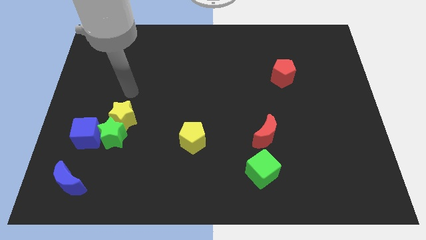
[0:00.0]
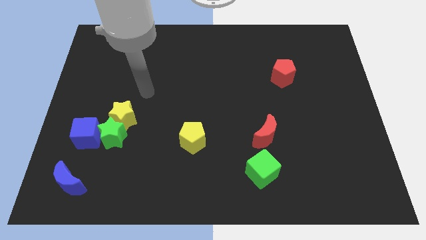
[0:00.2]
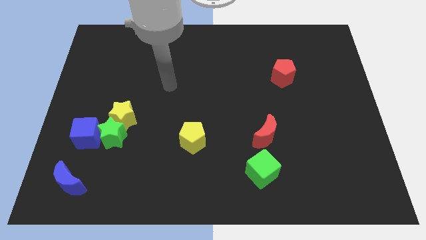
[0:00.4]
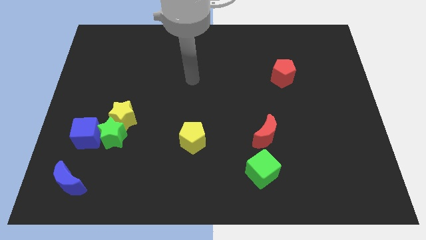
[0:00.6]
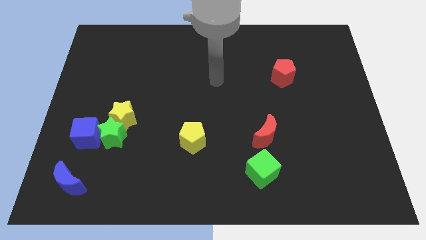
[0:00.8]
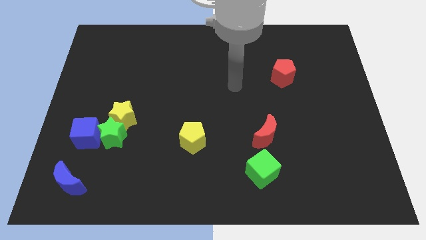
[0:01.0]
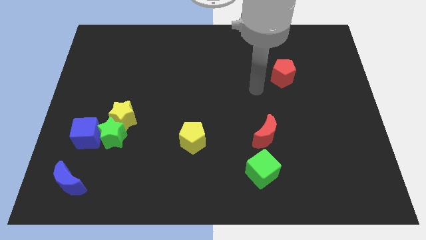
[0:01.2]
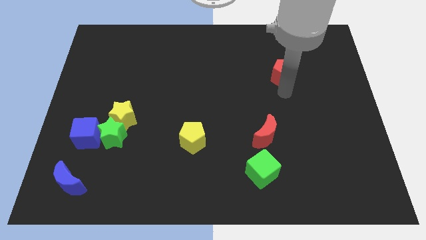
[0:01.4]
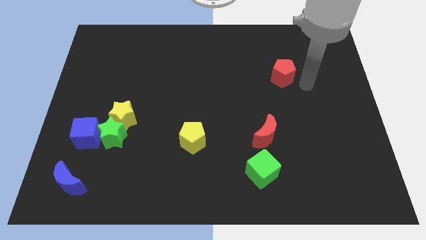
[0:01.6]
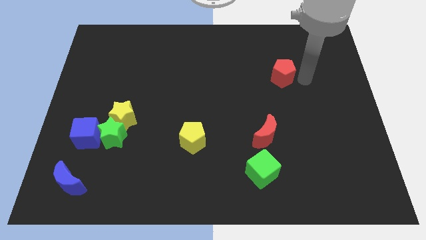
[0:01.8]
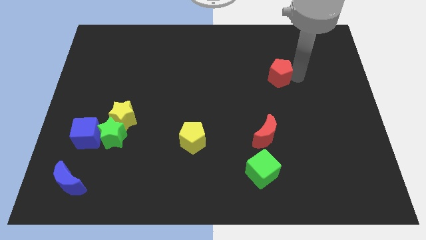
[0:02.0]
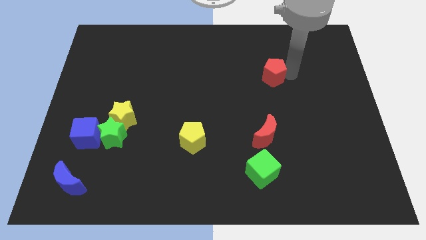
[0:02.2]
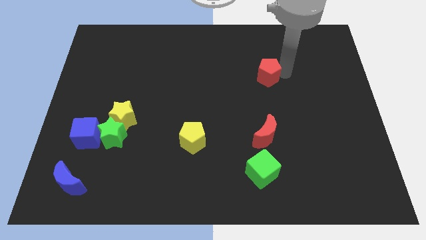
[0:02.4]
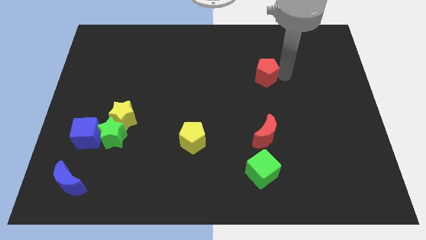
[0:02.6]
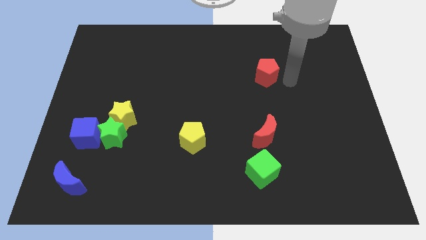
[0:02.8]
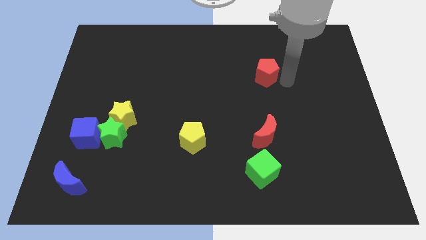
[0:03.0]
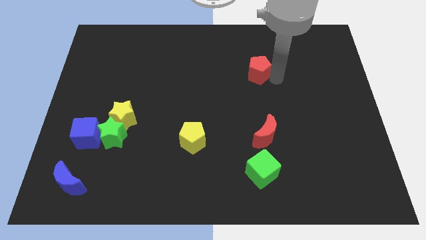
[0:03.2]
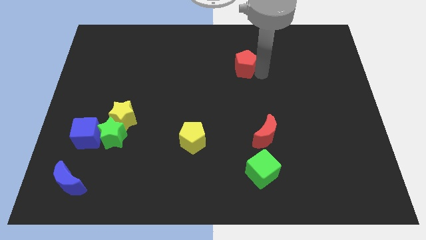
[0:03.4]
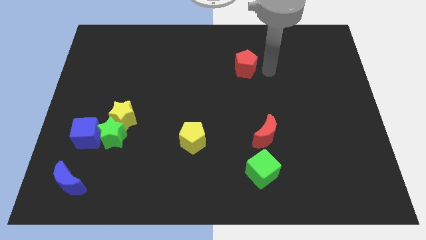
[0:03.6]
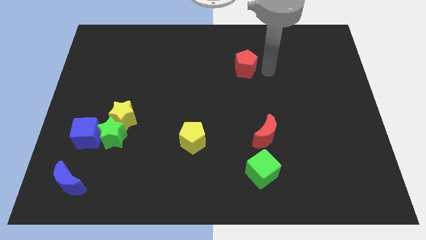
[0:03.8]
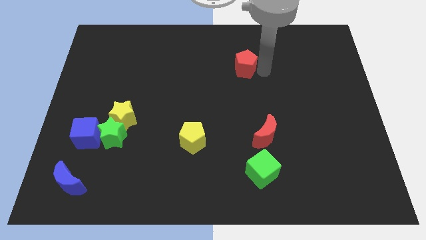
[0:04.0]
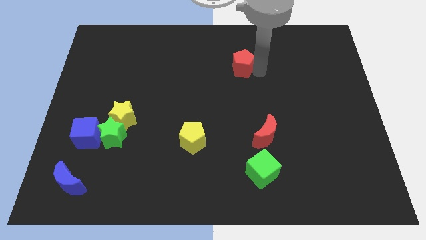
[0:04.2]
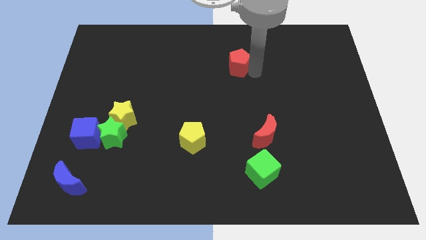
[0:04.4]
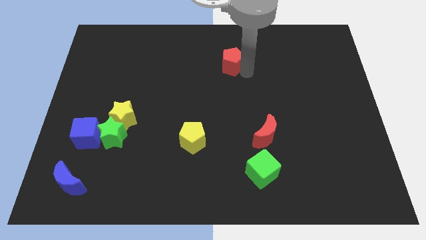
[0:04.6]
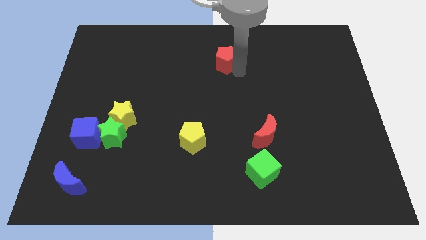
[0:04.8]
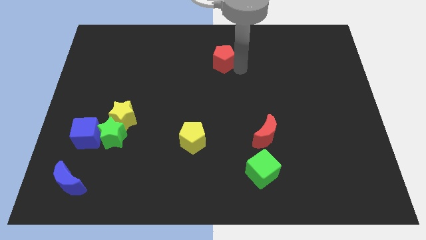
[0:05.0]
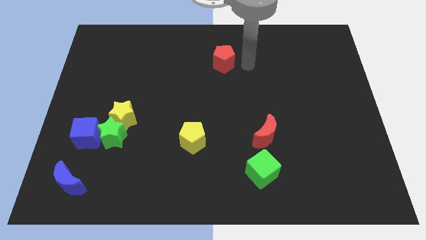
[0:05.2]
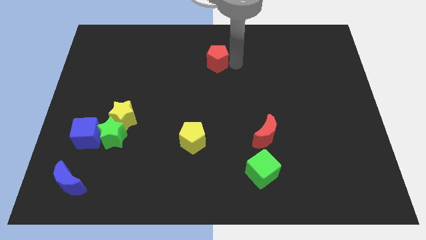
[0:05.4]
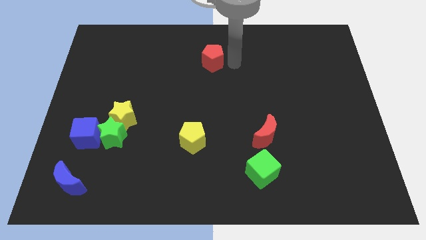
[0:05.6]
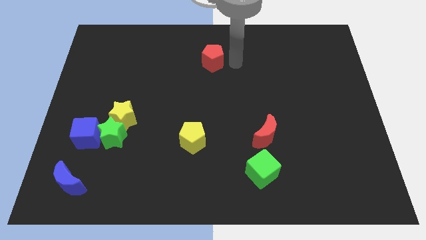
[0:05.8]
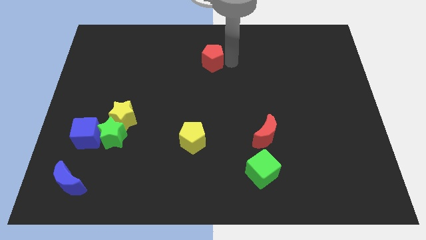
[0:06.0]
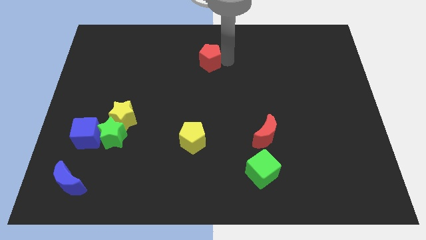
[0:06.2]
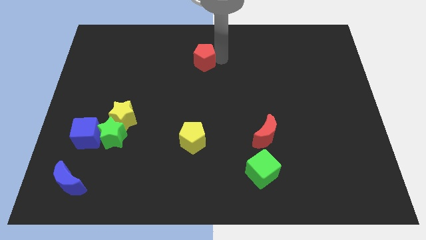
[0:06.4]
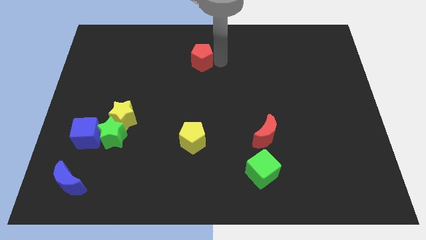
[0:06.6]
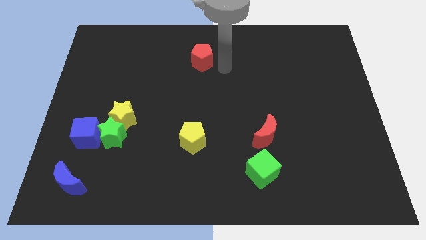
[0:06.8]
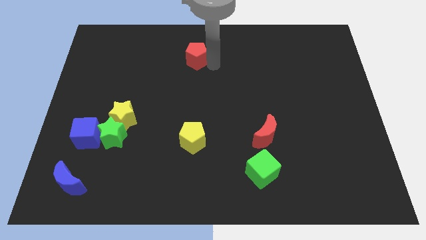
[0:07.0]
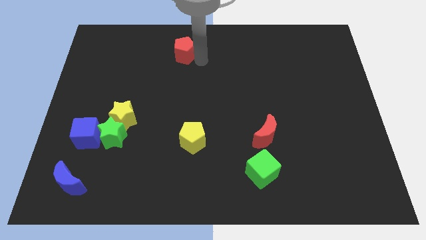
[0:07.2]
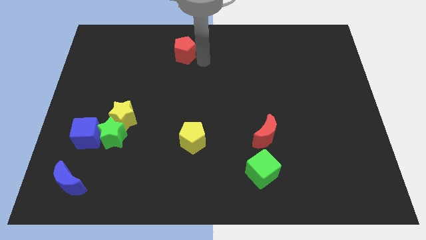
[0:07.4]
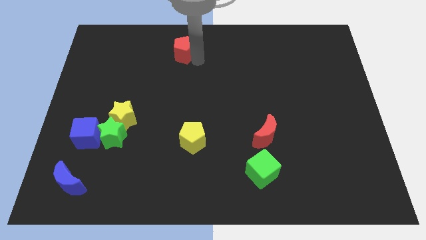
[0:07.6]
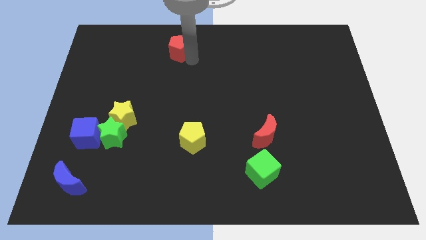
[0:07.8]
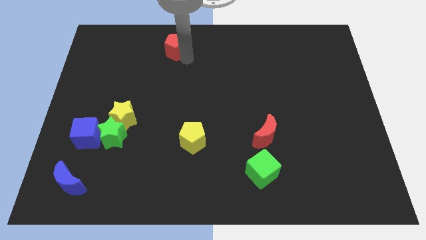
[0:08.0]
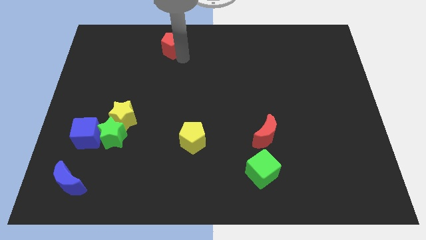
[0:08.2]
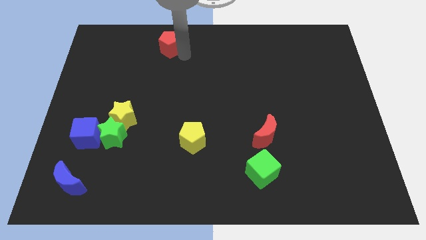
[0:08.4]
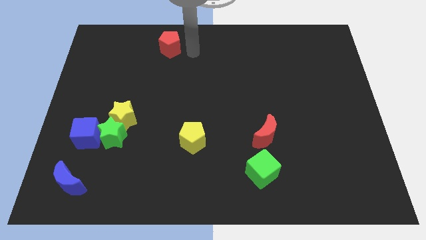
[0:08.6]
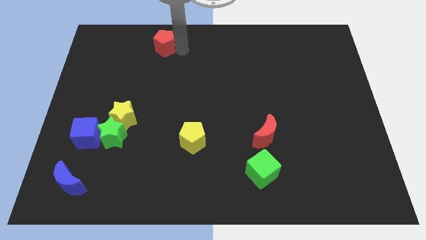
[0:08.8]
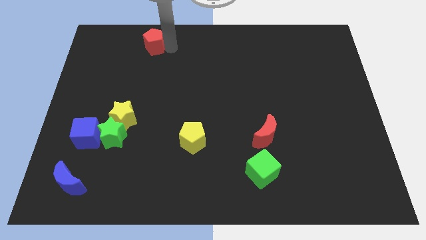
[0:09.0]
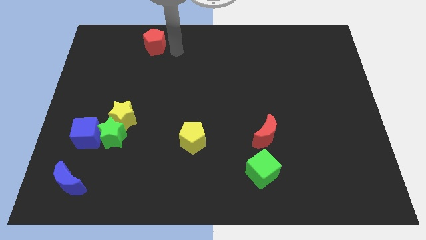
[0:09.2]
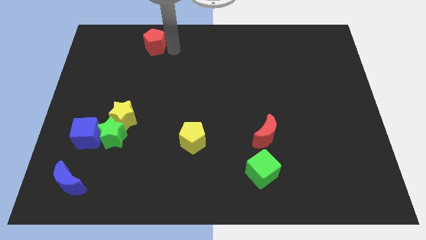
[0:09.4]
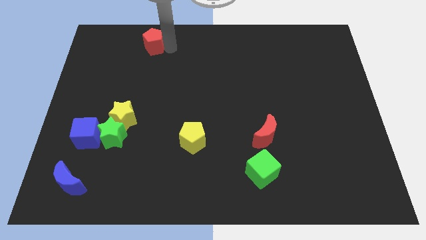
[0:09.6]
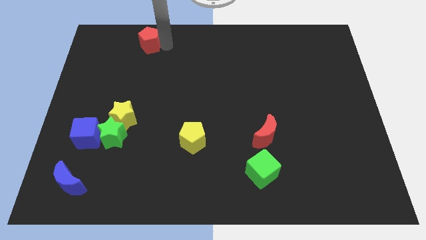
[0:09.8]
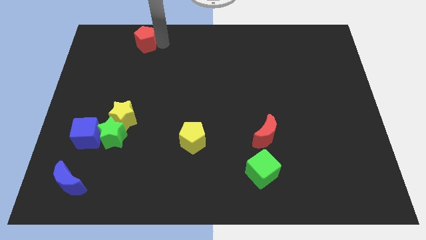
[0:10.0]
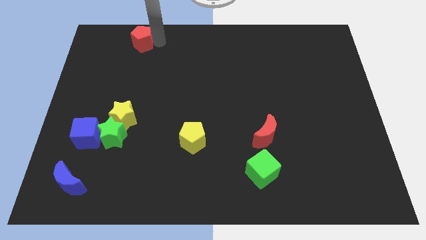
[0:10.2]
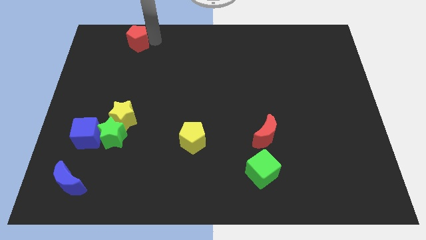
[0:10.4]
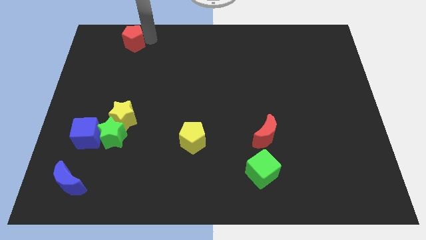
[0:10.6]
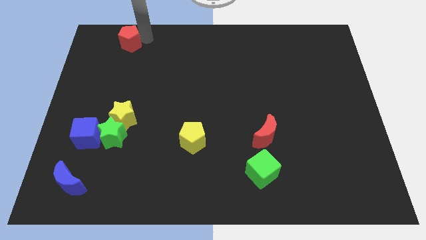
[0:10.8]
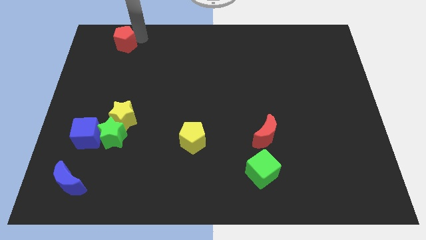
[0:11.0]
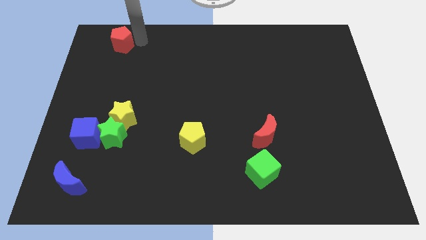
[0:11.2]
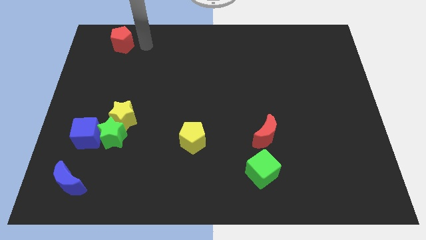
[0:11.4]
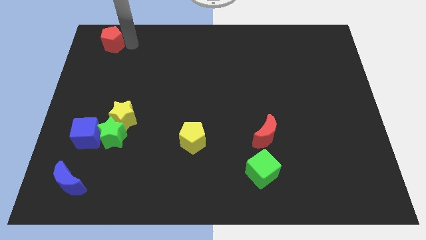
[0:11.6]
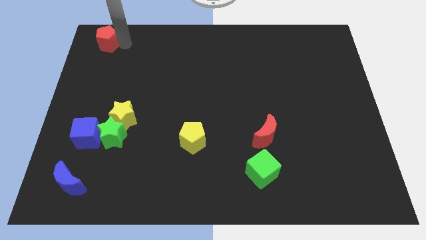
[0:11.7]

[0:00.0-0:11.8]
push the red pentagon to the top left of the board
